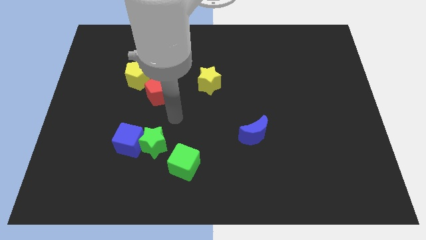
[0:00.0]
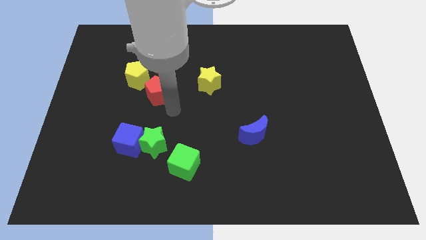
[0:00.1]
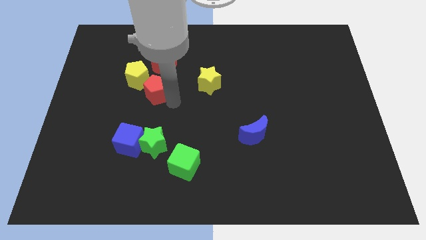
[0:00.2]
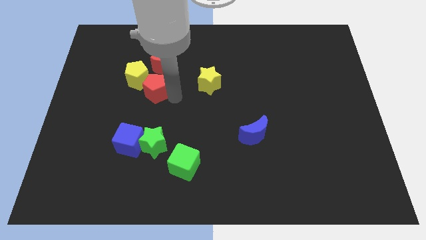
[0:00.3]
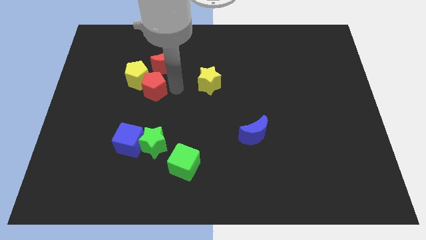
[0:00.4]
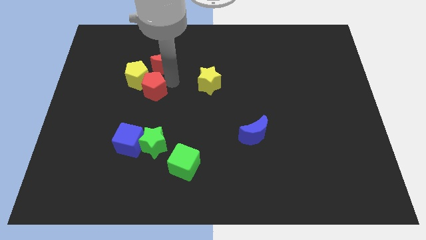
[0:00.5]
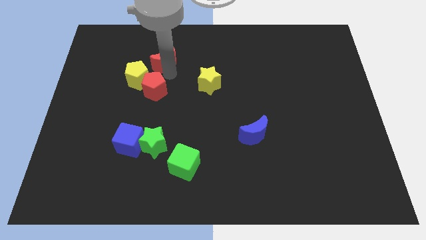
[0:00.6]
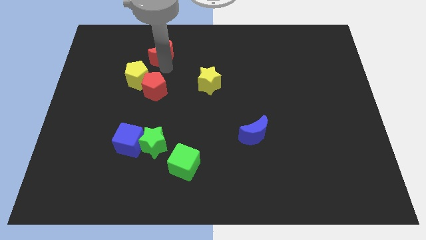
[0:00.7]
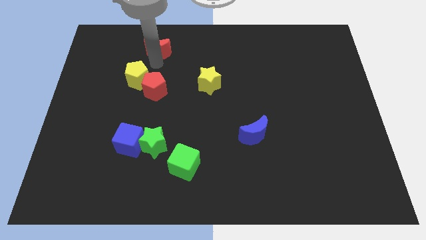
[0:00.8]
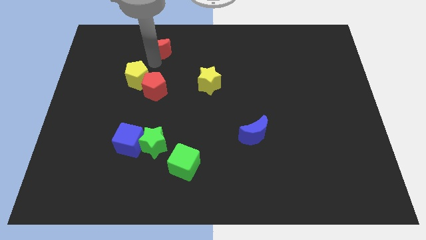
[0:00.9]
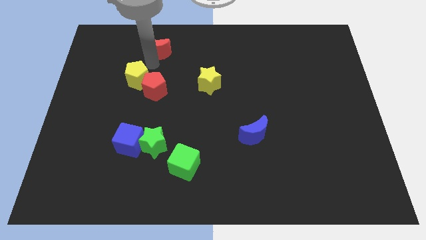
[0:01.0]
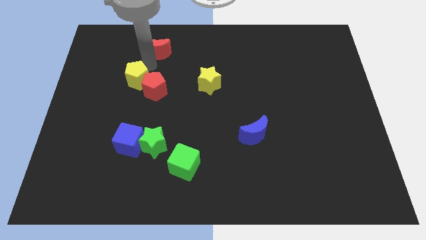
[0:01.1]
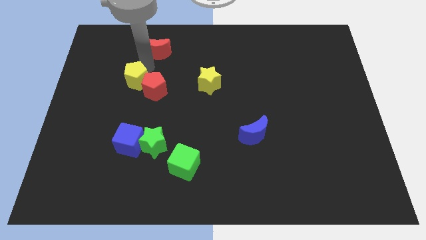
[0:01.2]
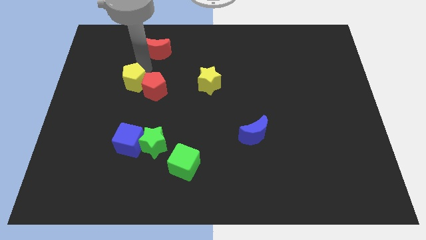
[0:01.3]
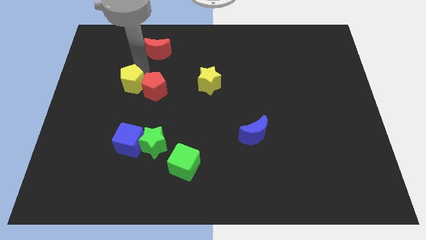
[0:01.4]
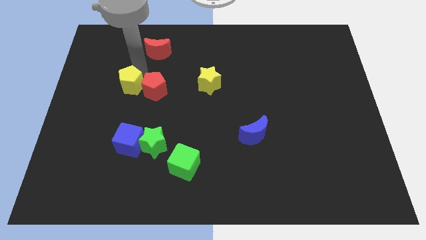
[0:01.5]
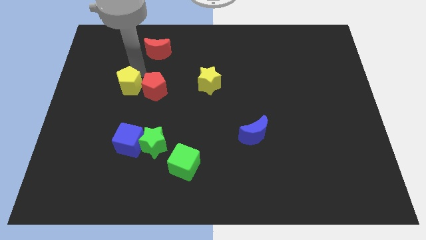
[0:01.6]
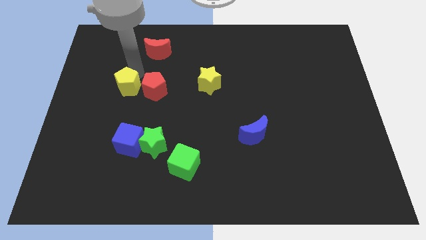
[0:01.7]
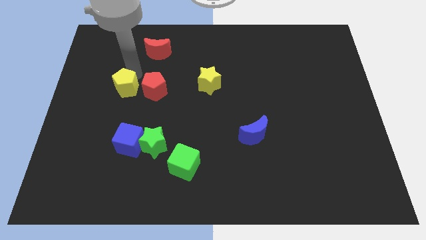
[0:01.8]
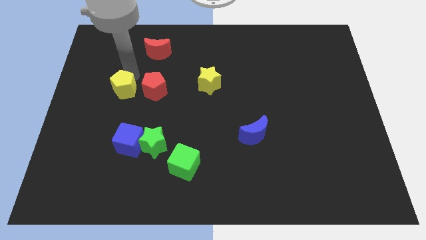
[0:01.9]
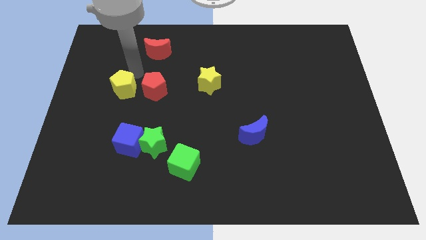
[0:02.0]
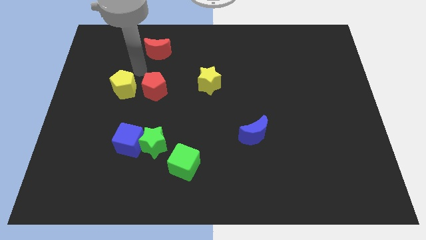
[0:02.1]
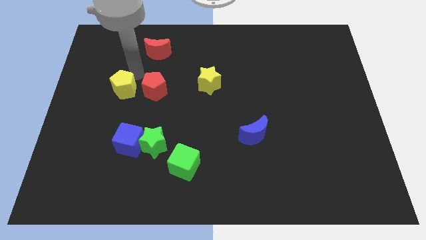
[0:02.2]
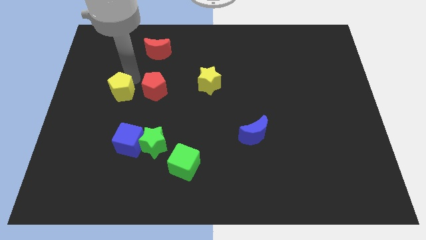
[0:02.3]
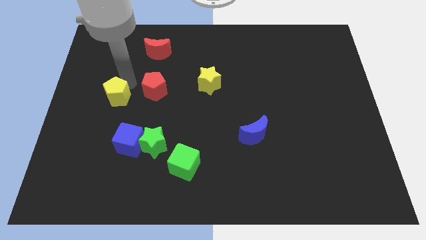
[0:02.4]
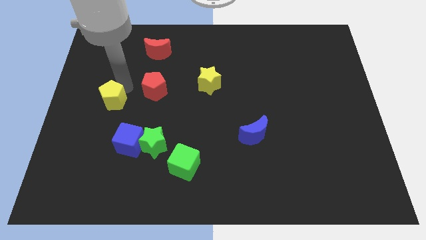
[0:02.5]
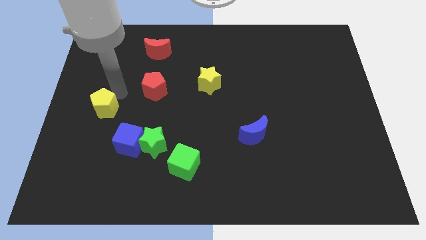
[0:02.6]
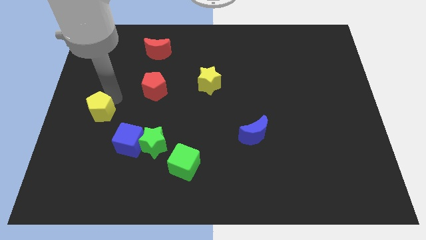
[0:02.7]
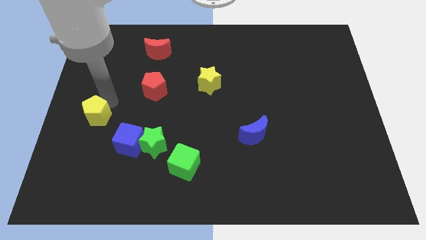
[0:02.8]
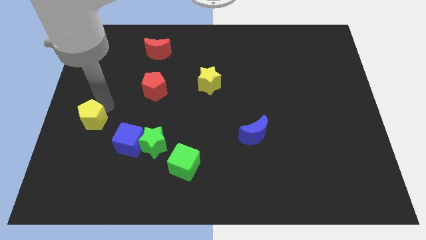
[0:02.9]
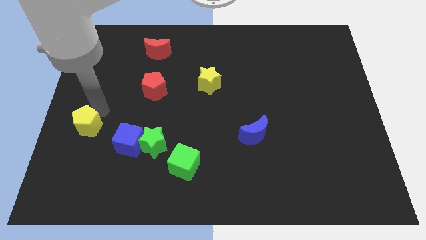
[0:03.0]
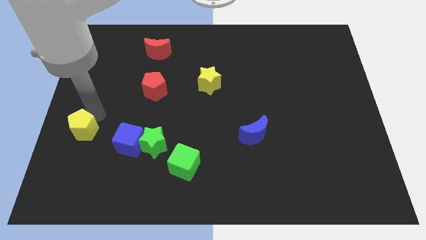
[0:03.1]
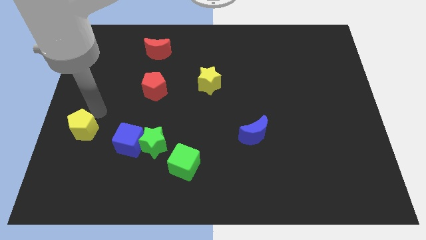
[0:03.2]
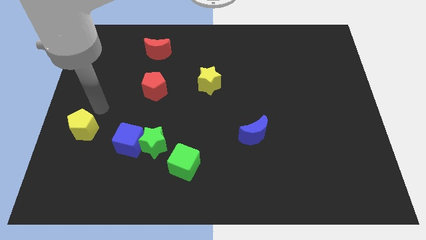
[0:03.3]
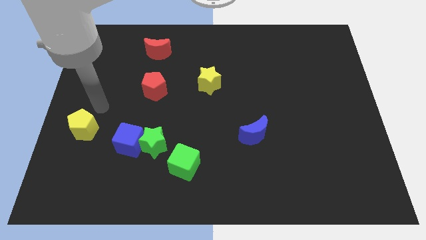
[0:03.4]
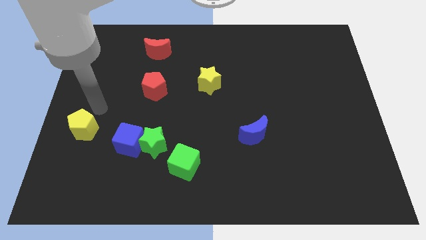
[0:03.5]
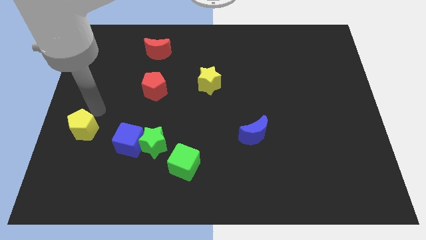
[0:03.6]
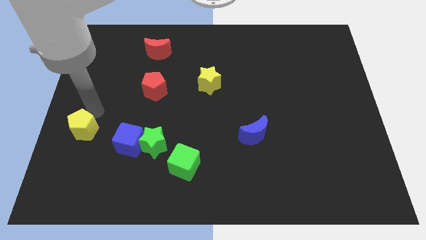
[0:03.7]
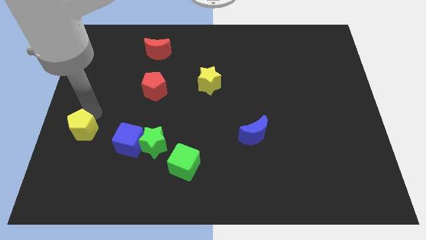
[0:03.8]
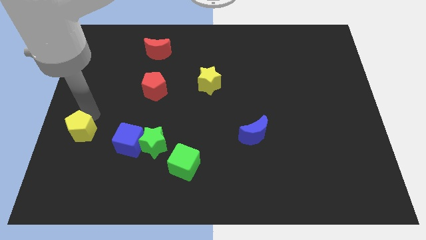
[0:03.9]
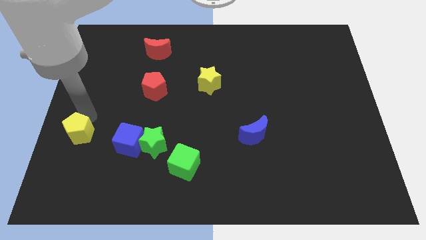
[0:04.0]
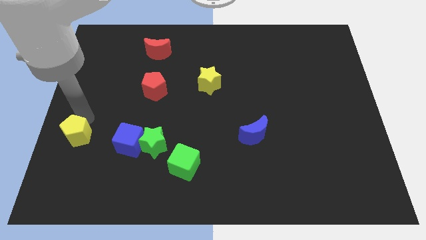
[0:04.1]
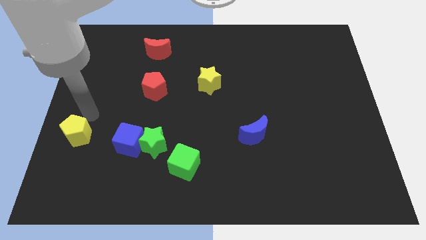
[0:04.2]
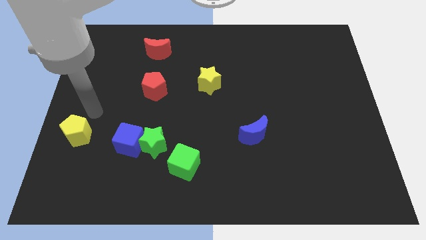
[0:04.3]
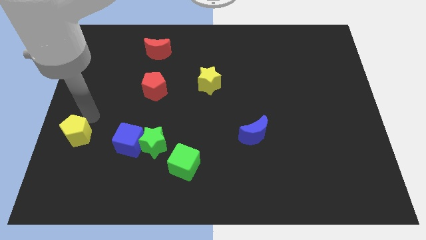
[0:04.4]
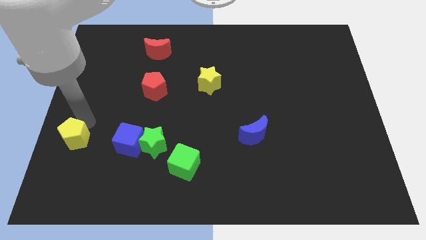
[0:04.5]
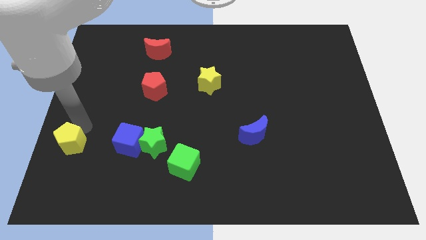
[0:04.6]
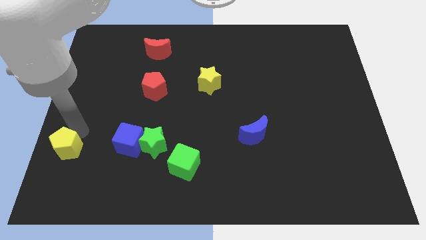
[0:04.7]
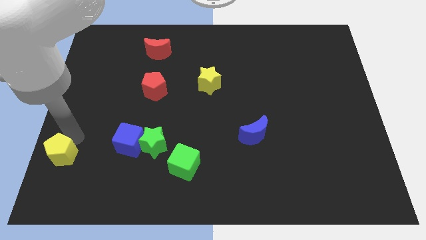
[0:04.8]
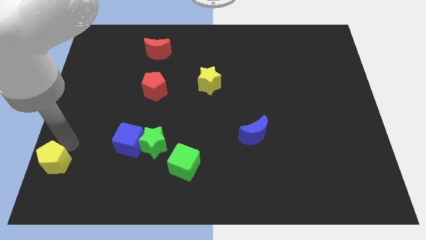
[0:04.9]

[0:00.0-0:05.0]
slide the yellow pentagon to the bottom left corner

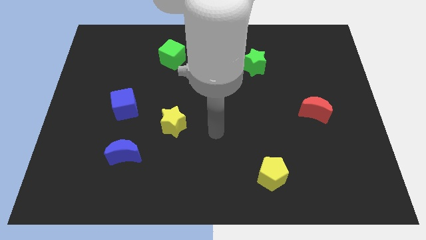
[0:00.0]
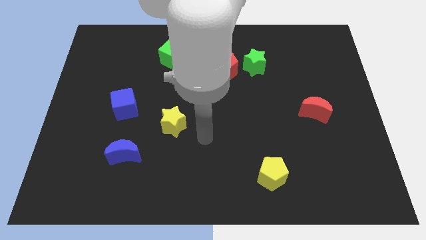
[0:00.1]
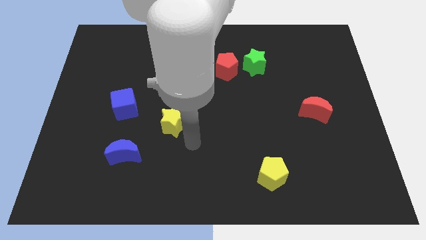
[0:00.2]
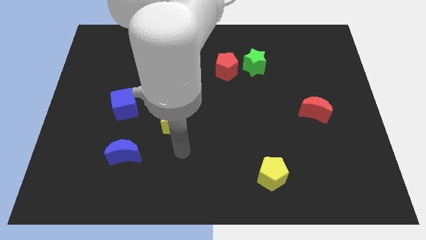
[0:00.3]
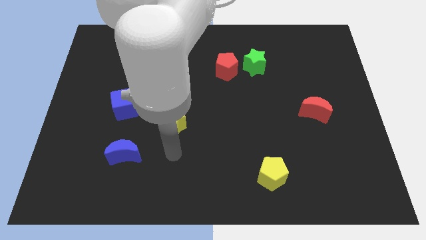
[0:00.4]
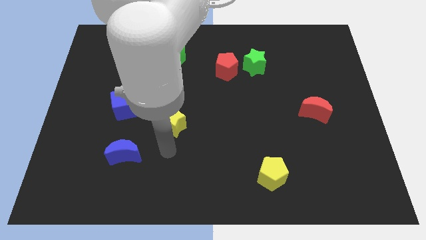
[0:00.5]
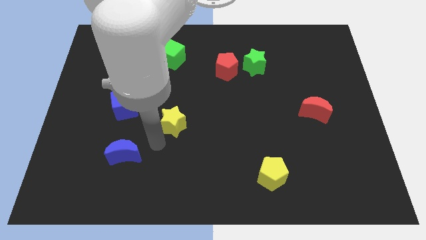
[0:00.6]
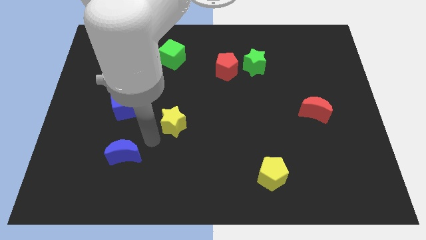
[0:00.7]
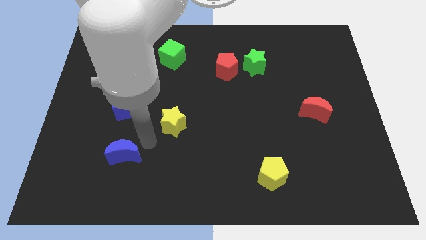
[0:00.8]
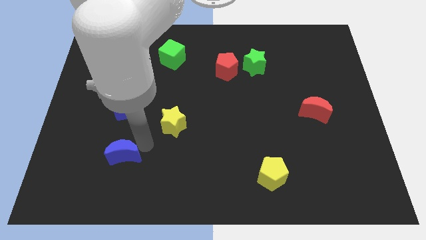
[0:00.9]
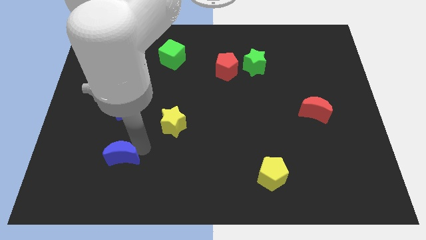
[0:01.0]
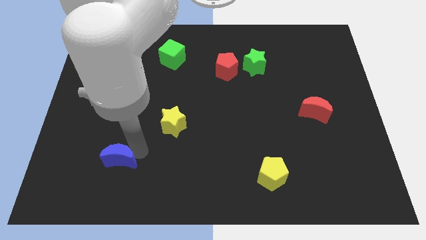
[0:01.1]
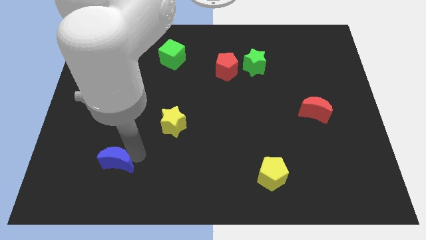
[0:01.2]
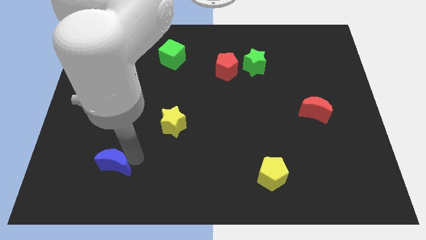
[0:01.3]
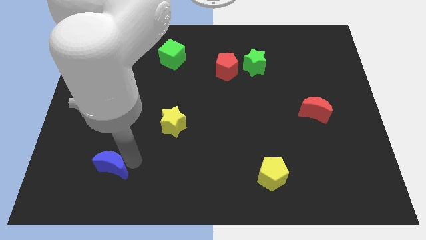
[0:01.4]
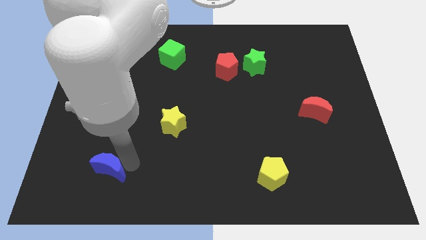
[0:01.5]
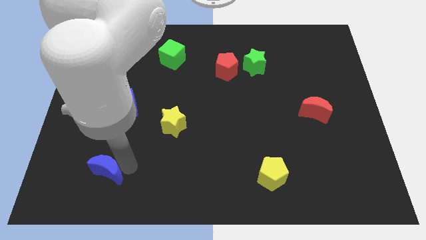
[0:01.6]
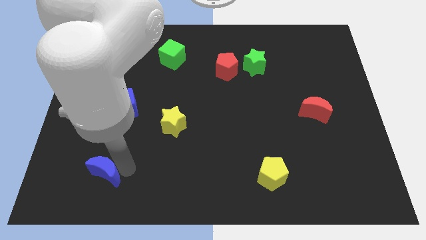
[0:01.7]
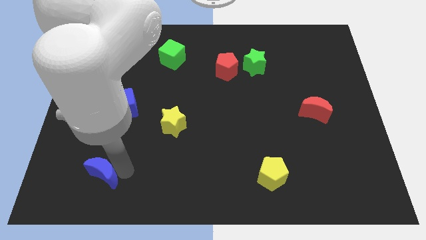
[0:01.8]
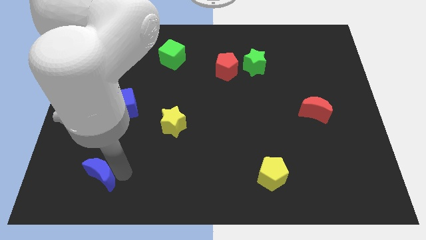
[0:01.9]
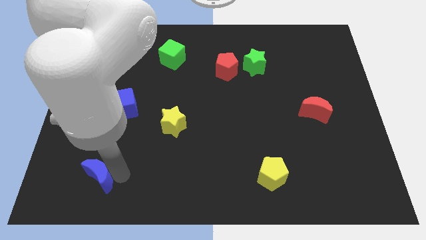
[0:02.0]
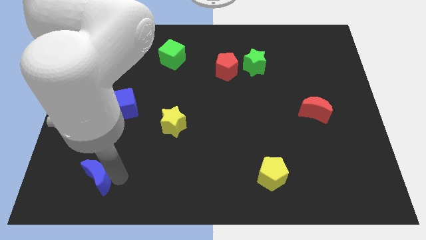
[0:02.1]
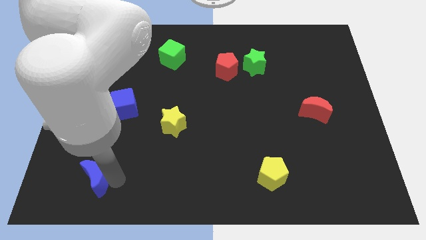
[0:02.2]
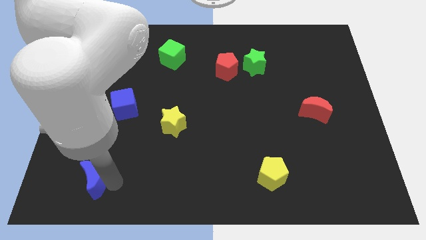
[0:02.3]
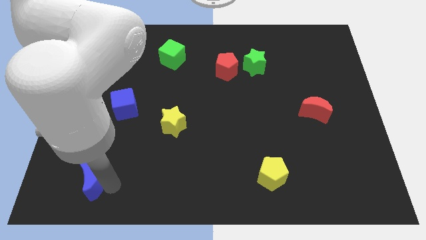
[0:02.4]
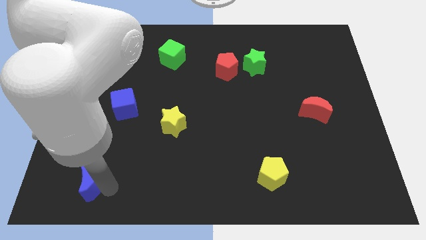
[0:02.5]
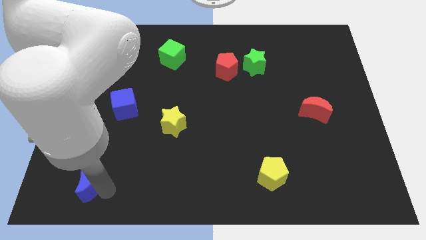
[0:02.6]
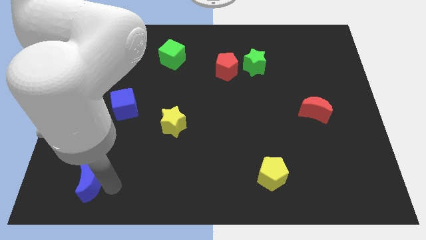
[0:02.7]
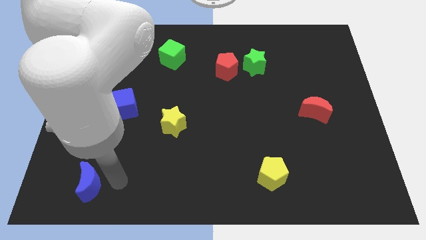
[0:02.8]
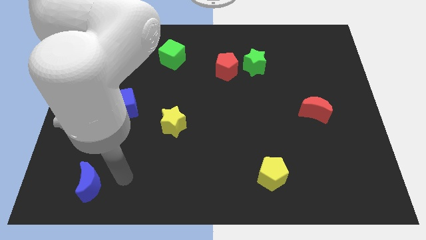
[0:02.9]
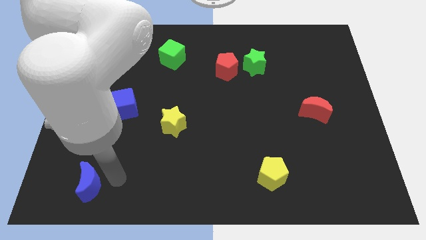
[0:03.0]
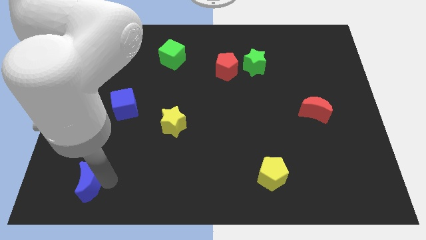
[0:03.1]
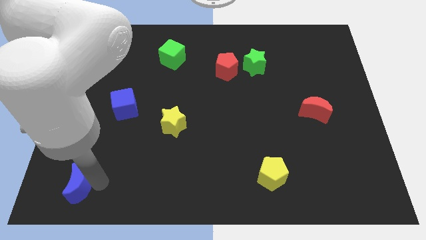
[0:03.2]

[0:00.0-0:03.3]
push the blue moon to the lower left corner
